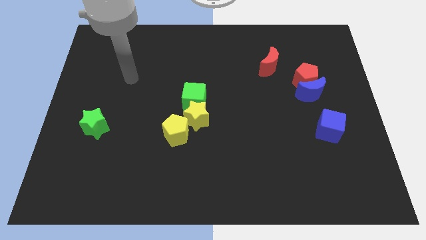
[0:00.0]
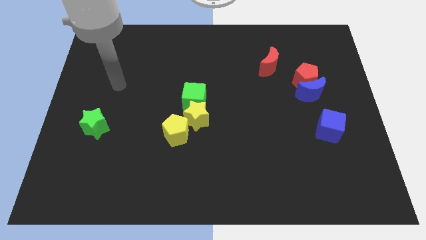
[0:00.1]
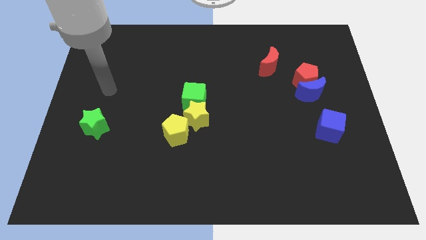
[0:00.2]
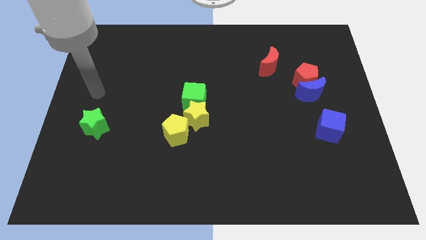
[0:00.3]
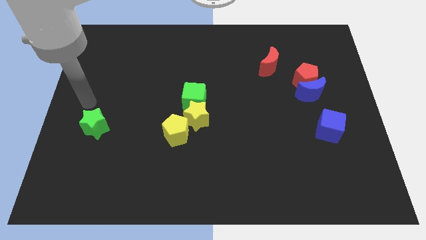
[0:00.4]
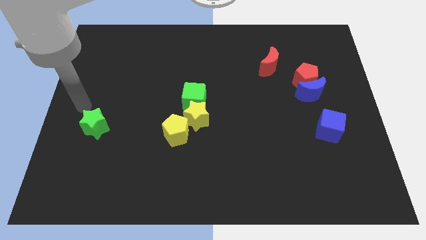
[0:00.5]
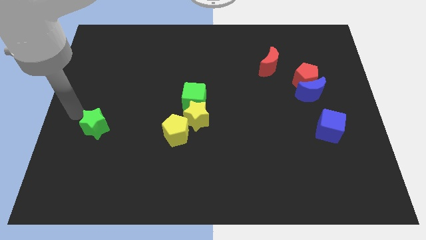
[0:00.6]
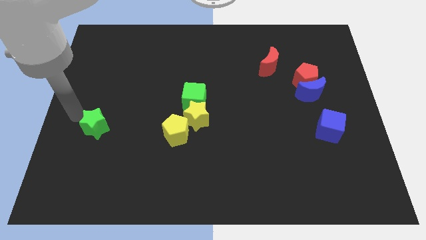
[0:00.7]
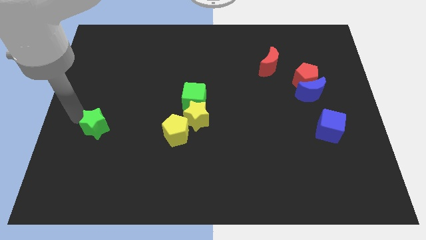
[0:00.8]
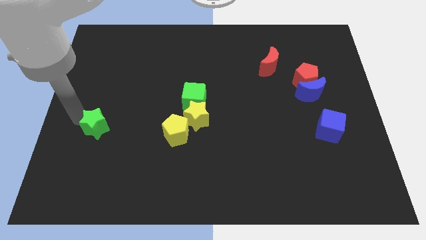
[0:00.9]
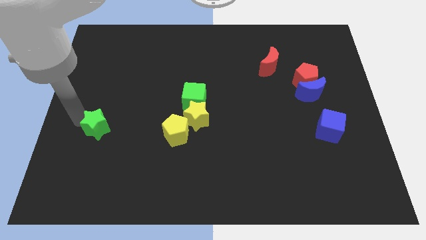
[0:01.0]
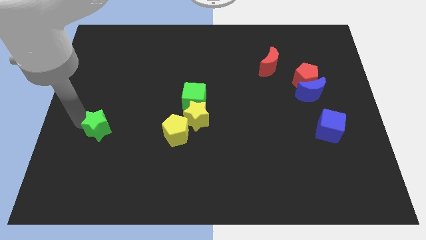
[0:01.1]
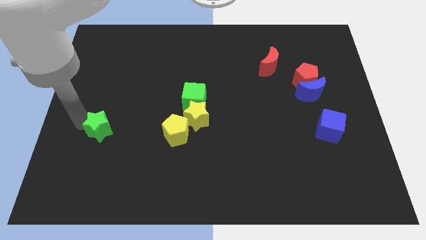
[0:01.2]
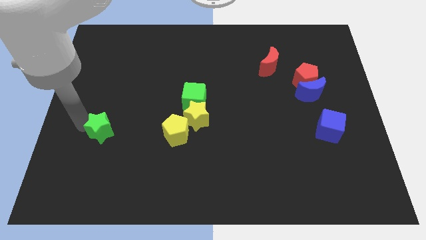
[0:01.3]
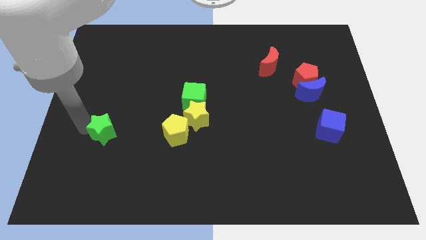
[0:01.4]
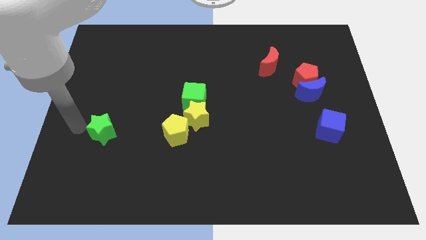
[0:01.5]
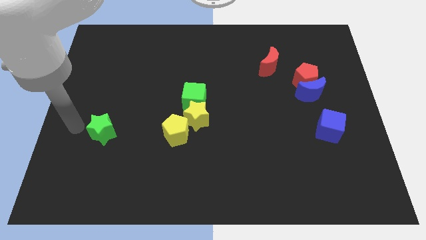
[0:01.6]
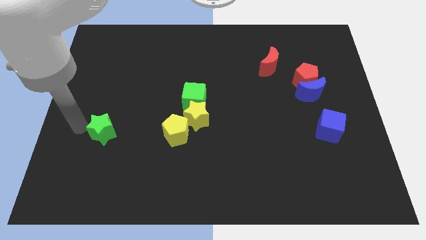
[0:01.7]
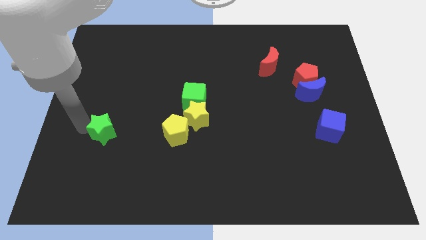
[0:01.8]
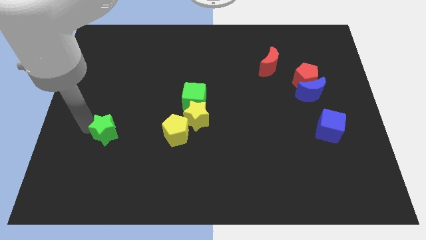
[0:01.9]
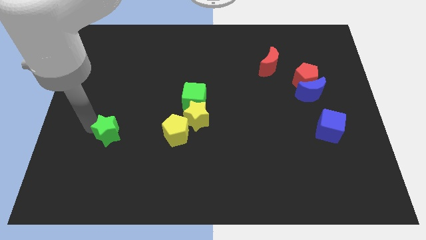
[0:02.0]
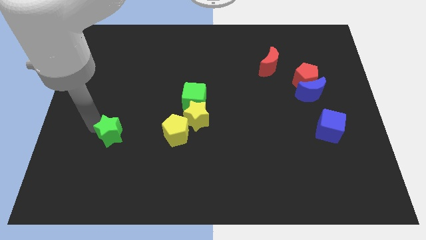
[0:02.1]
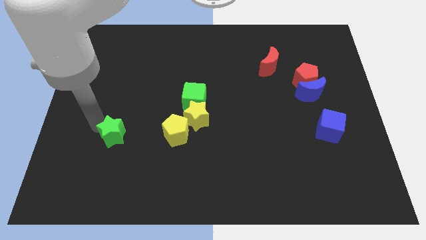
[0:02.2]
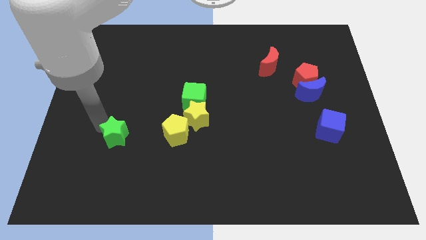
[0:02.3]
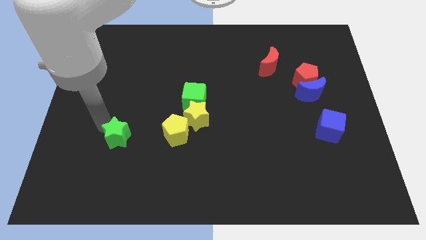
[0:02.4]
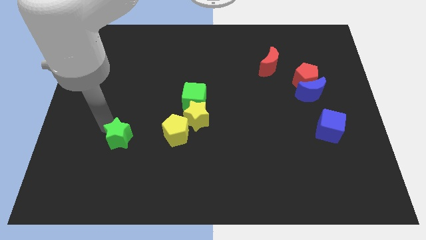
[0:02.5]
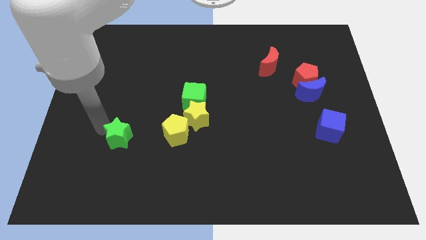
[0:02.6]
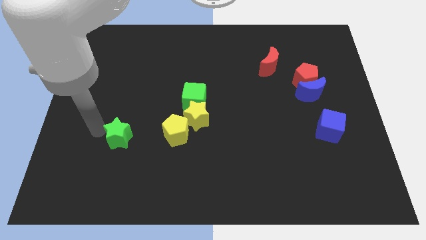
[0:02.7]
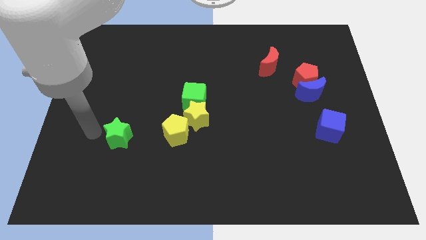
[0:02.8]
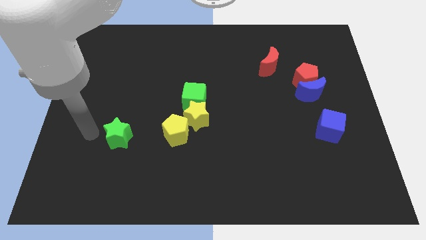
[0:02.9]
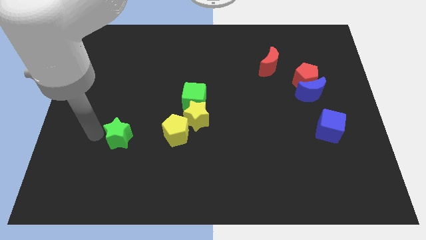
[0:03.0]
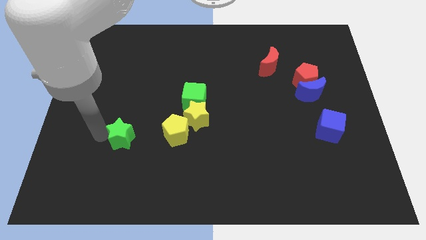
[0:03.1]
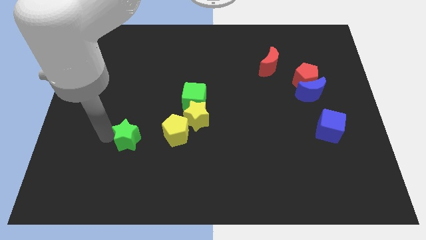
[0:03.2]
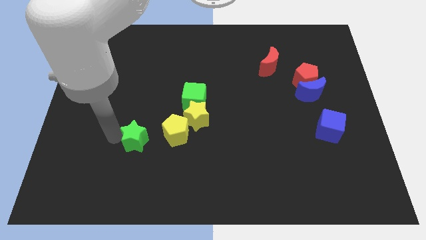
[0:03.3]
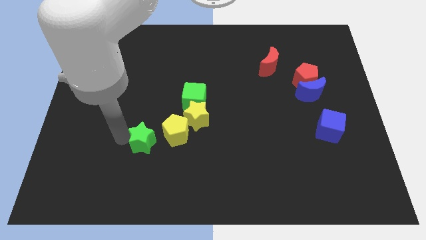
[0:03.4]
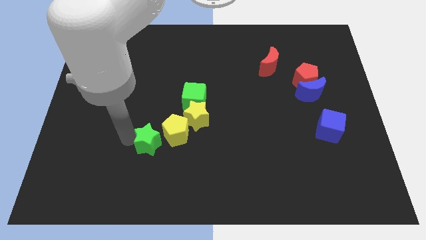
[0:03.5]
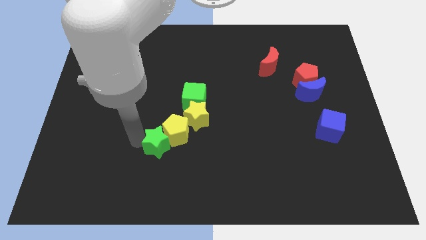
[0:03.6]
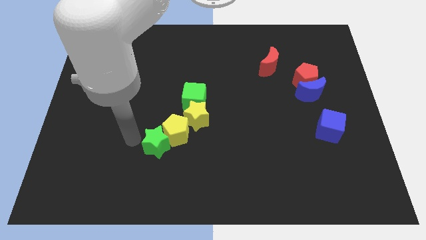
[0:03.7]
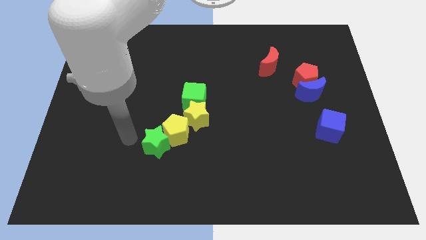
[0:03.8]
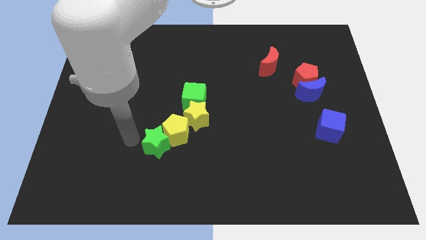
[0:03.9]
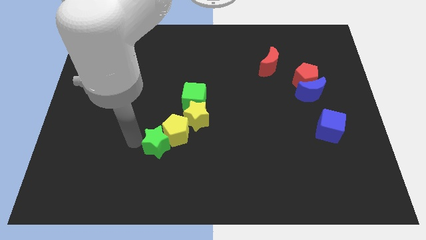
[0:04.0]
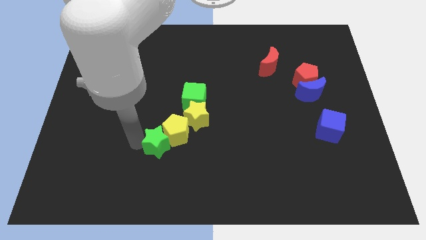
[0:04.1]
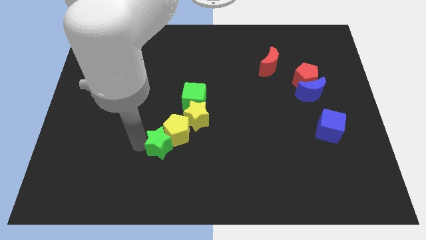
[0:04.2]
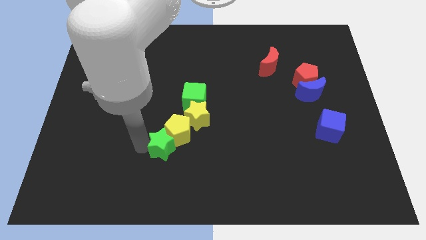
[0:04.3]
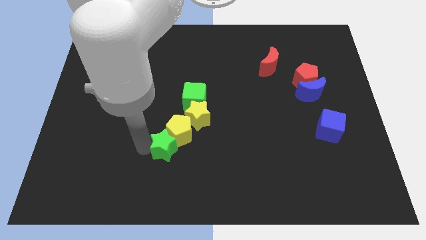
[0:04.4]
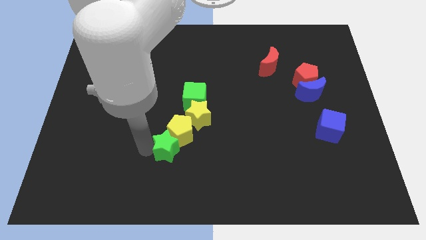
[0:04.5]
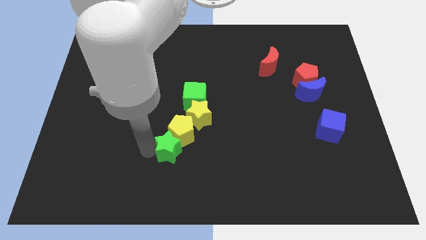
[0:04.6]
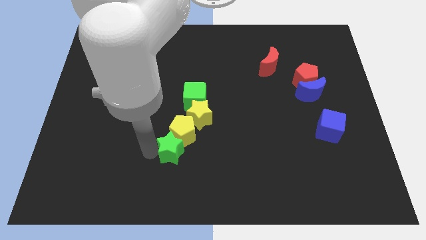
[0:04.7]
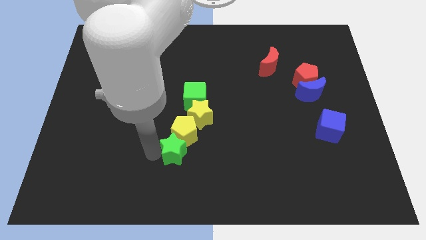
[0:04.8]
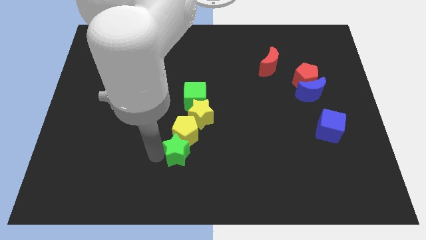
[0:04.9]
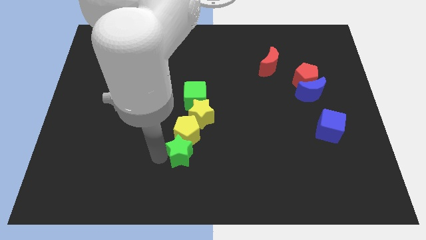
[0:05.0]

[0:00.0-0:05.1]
slide the green star to the bottom side of the yellow star

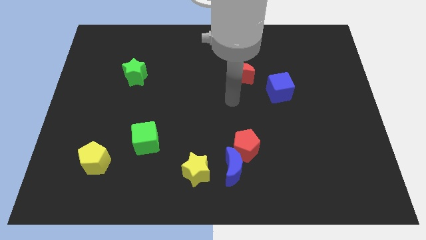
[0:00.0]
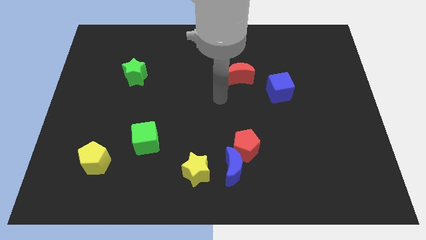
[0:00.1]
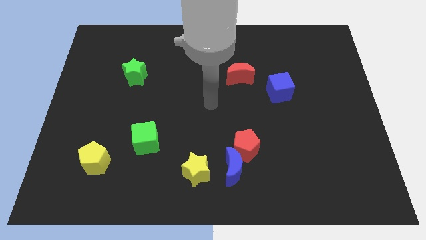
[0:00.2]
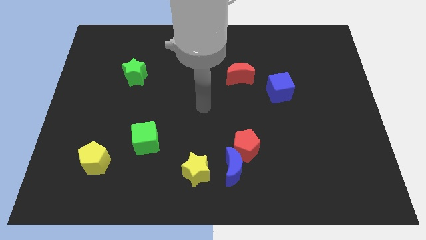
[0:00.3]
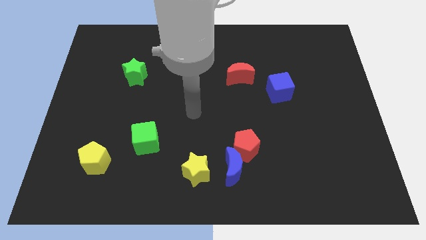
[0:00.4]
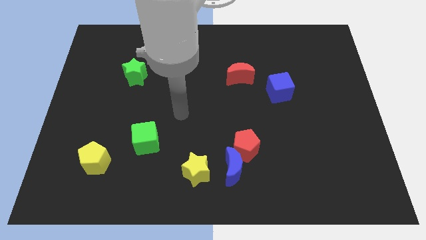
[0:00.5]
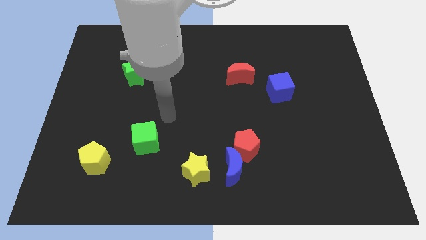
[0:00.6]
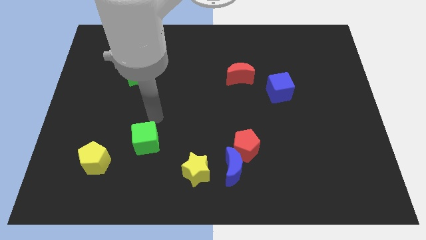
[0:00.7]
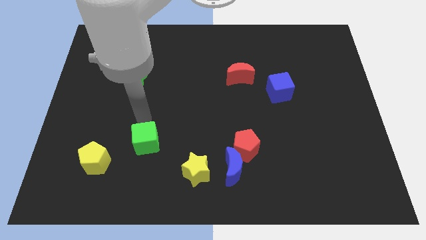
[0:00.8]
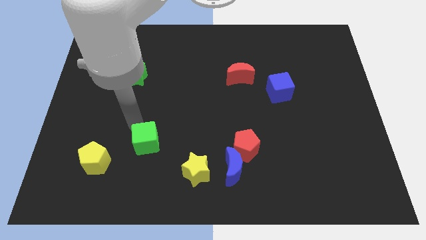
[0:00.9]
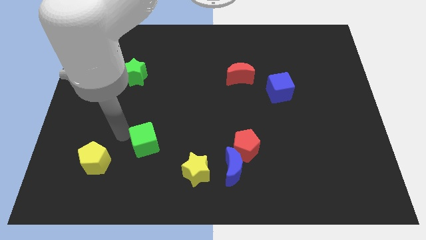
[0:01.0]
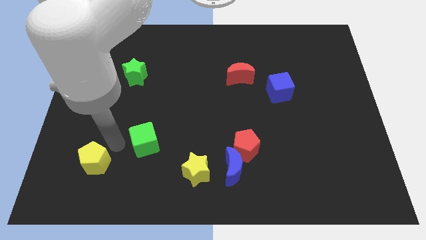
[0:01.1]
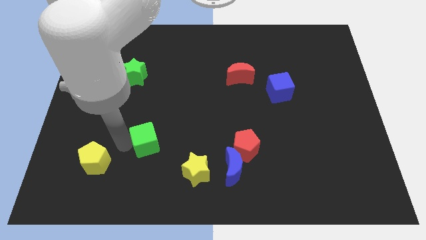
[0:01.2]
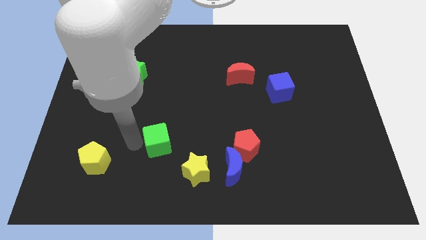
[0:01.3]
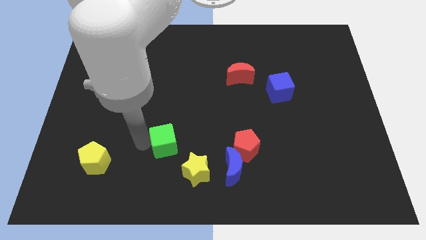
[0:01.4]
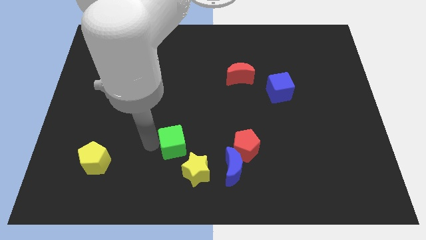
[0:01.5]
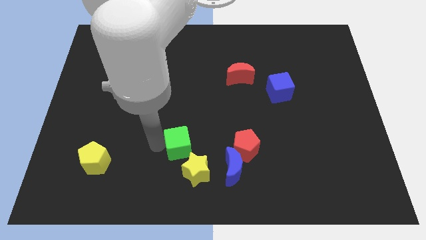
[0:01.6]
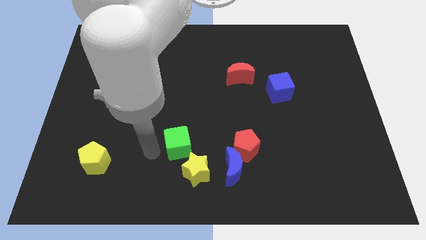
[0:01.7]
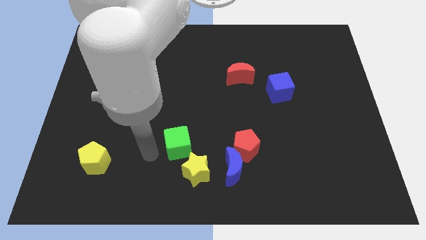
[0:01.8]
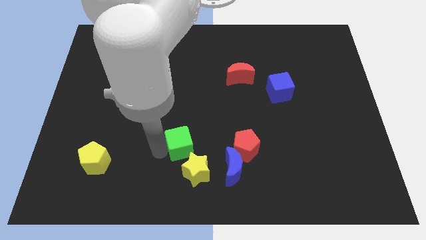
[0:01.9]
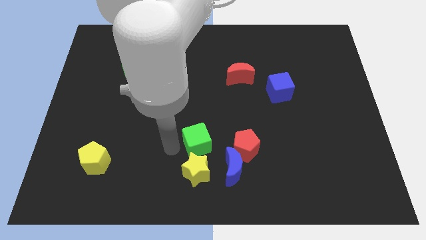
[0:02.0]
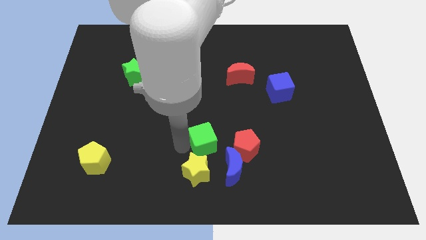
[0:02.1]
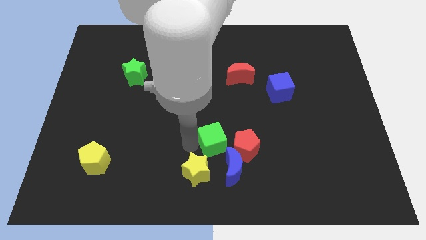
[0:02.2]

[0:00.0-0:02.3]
move the green cube above the blue moon

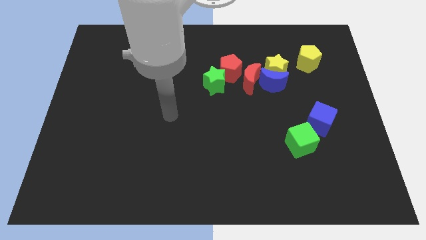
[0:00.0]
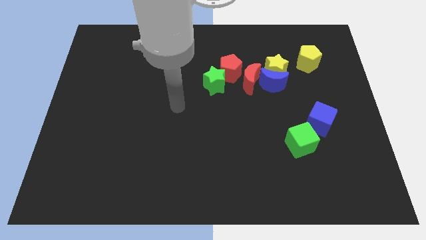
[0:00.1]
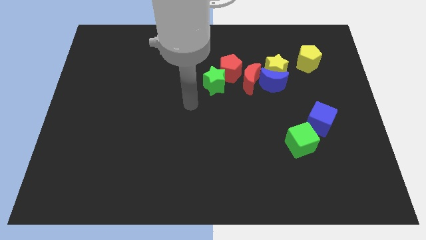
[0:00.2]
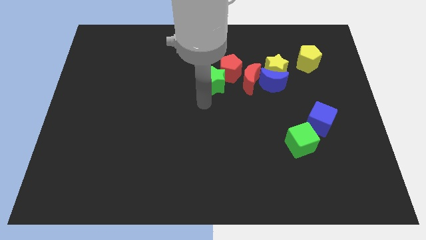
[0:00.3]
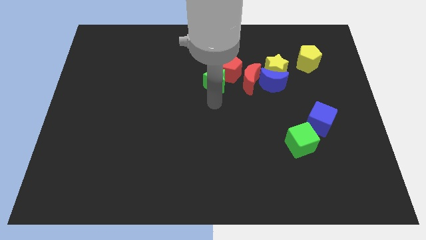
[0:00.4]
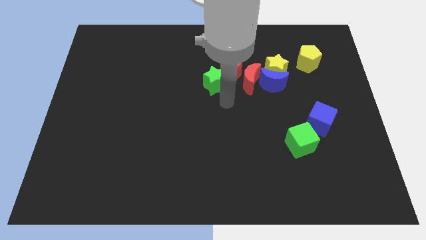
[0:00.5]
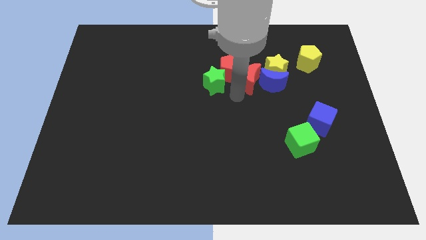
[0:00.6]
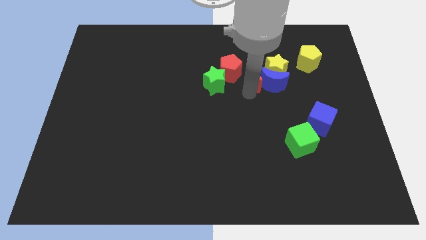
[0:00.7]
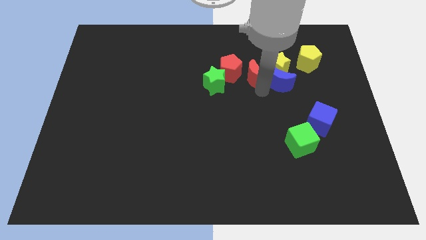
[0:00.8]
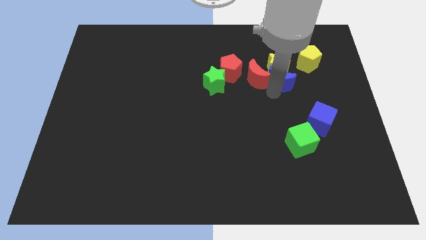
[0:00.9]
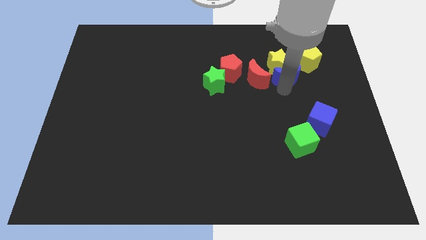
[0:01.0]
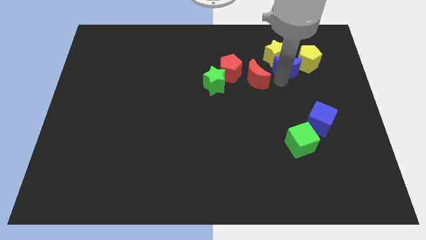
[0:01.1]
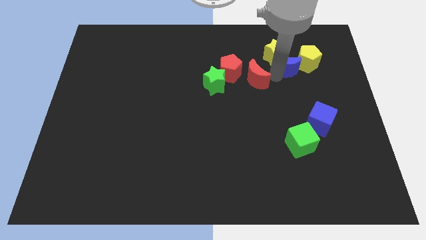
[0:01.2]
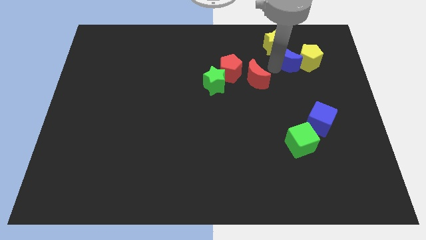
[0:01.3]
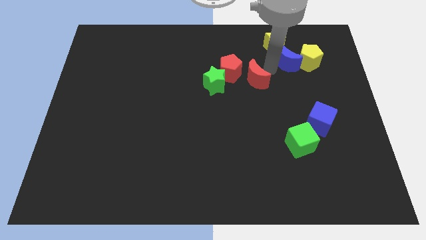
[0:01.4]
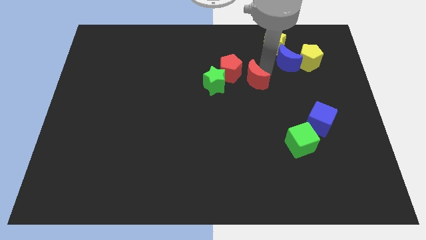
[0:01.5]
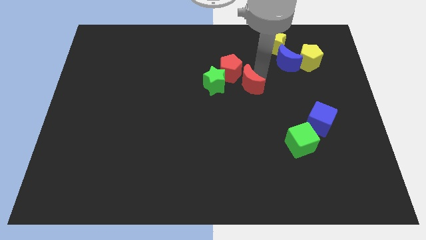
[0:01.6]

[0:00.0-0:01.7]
push the red moon below the red pentagon
